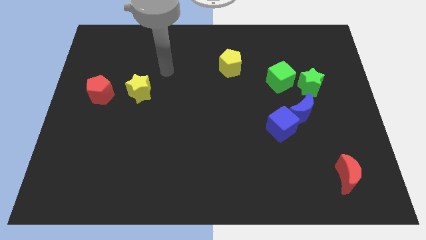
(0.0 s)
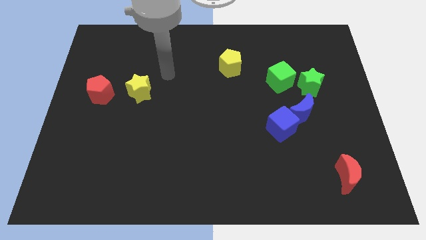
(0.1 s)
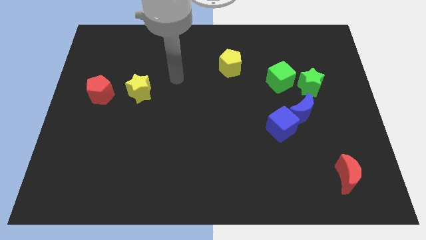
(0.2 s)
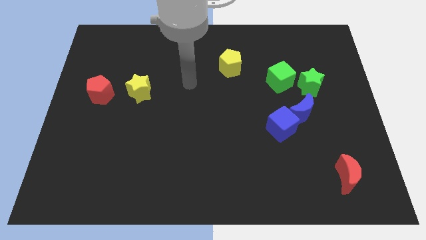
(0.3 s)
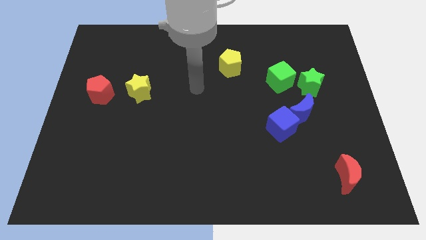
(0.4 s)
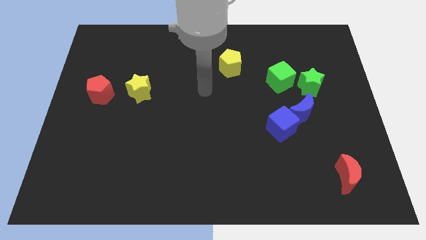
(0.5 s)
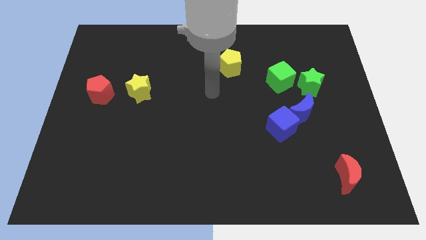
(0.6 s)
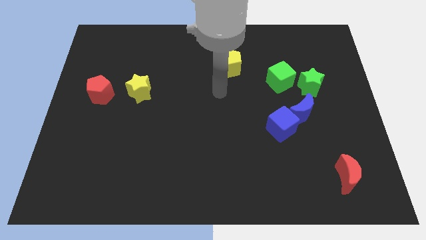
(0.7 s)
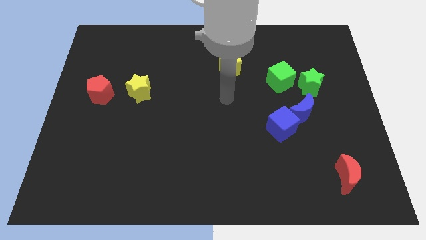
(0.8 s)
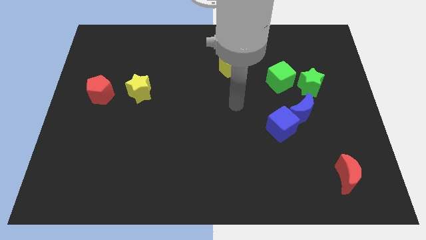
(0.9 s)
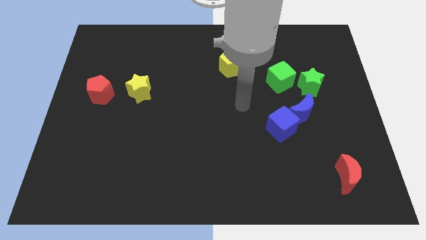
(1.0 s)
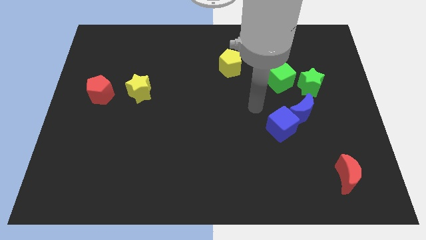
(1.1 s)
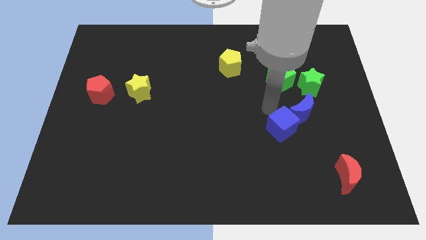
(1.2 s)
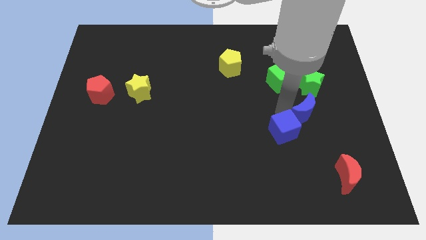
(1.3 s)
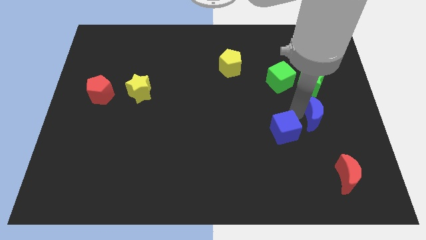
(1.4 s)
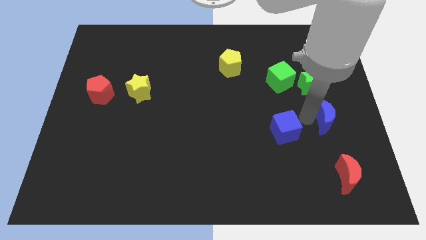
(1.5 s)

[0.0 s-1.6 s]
separate the blue cube from the blue moon

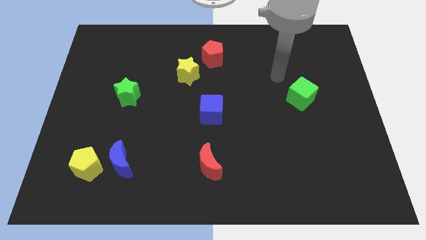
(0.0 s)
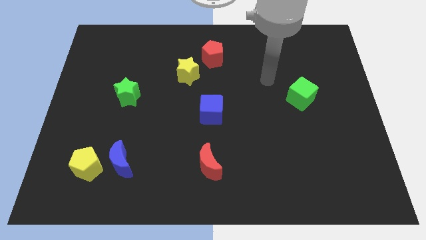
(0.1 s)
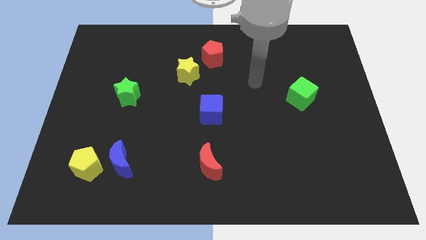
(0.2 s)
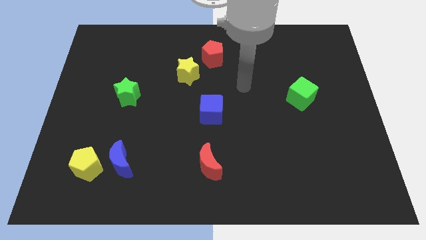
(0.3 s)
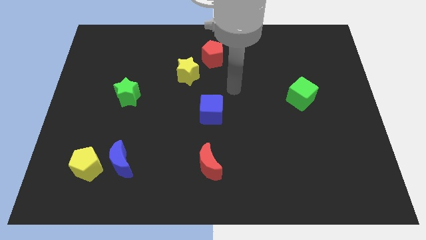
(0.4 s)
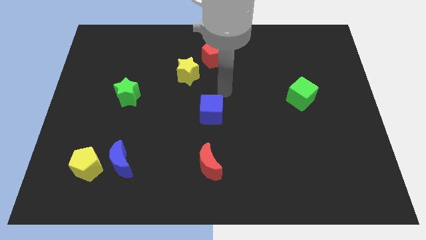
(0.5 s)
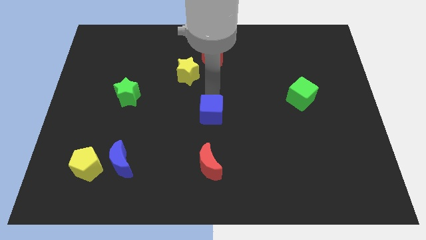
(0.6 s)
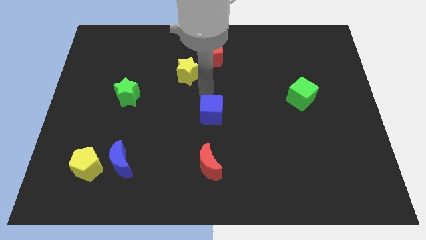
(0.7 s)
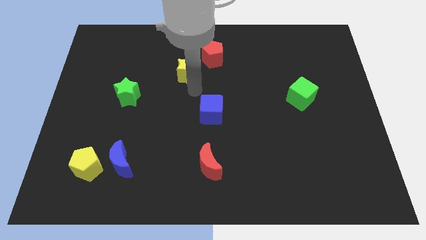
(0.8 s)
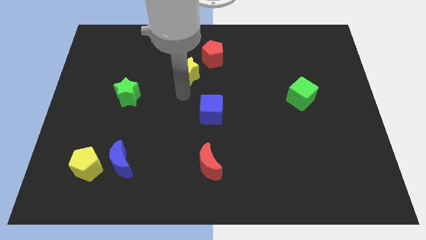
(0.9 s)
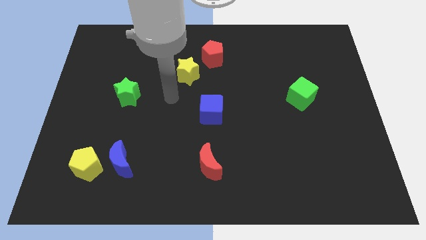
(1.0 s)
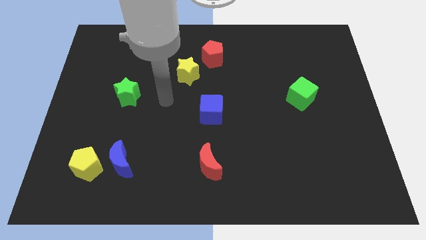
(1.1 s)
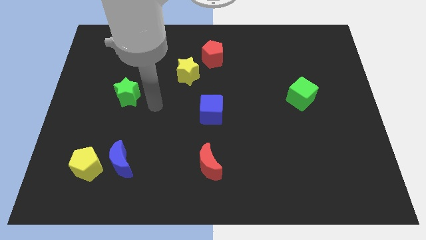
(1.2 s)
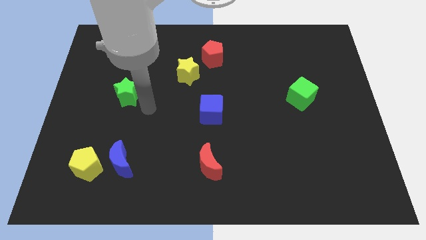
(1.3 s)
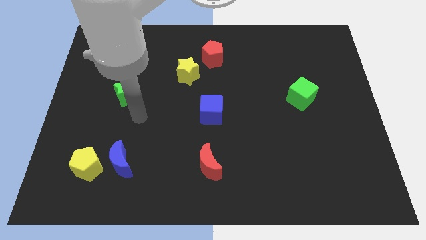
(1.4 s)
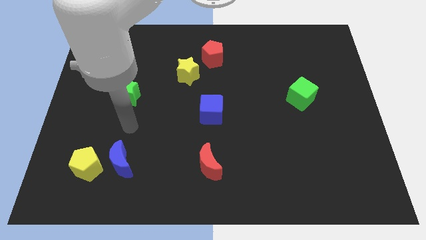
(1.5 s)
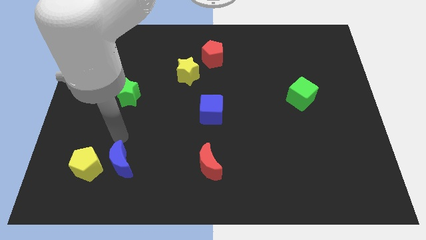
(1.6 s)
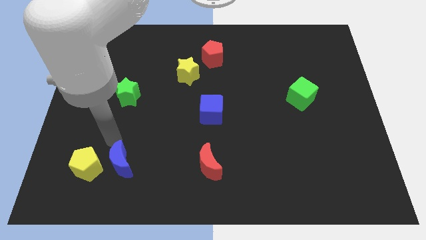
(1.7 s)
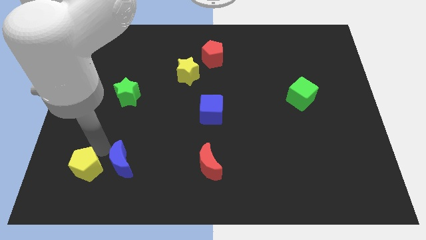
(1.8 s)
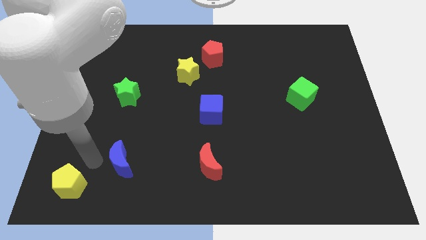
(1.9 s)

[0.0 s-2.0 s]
move the blue moon away from the yellow pentagon

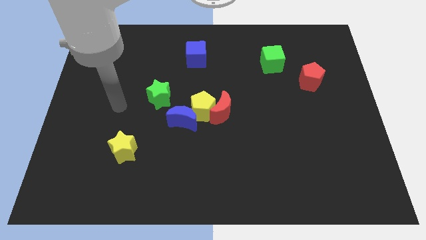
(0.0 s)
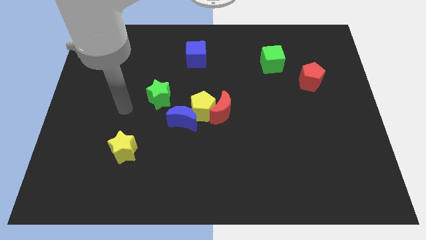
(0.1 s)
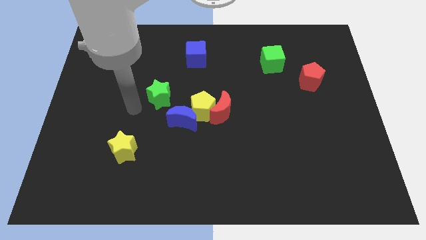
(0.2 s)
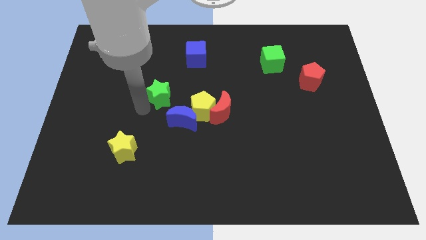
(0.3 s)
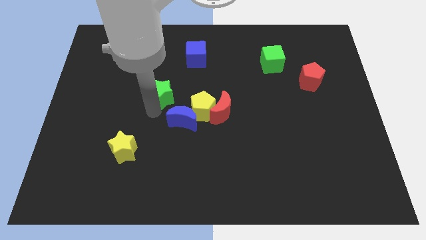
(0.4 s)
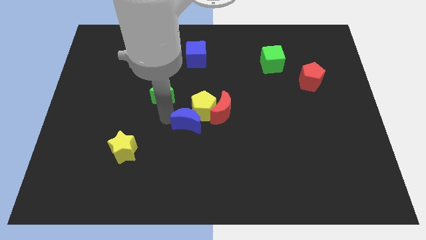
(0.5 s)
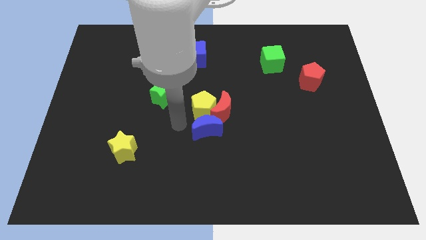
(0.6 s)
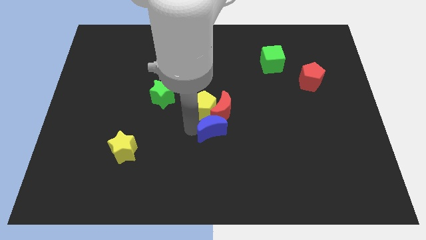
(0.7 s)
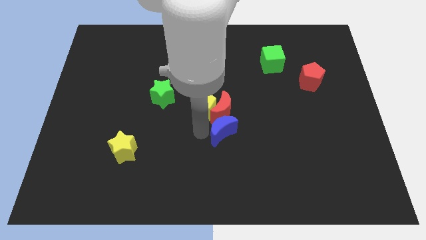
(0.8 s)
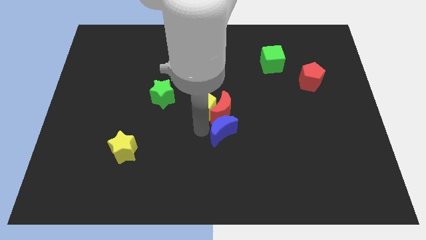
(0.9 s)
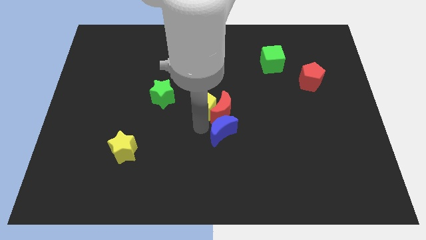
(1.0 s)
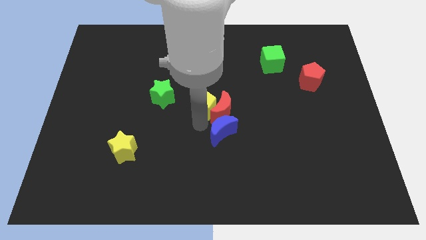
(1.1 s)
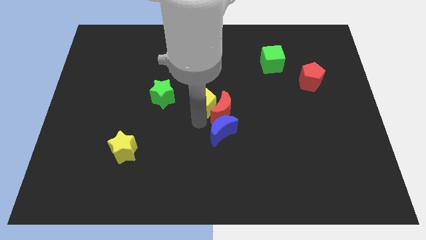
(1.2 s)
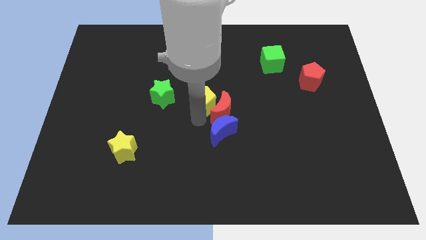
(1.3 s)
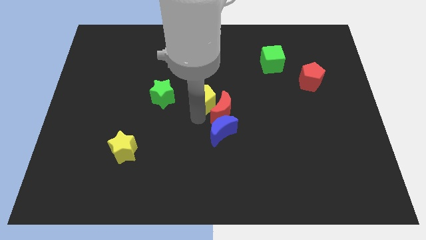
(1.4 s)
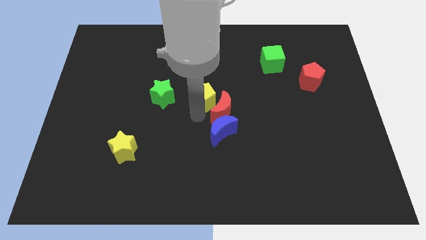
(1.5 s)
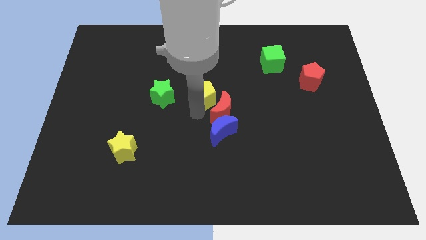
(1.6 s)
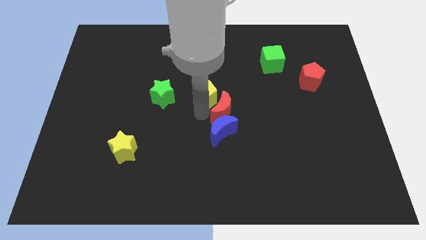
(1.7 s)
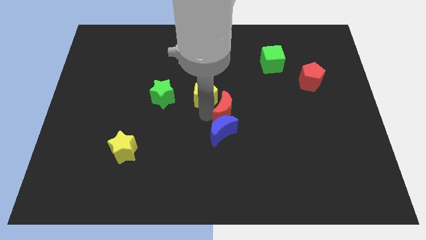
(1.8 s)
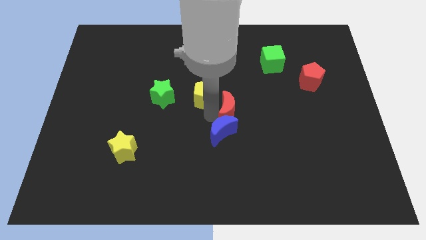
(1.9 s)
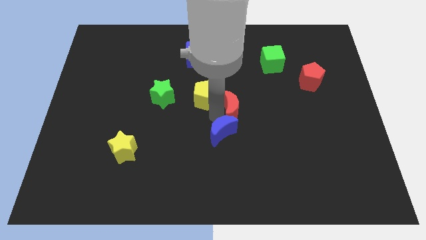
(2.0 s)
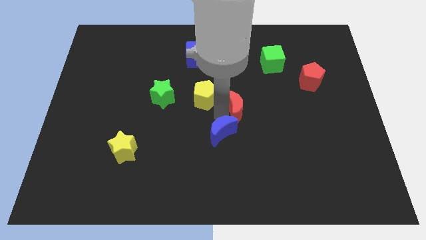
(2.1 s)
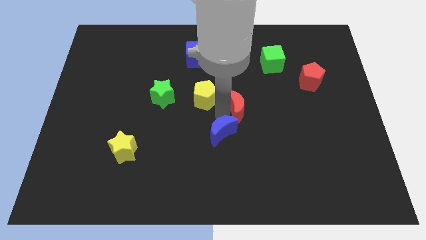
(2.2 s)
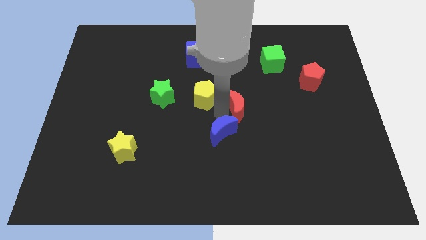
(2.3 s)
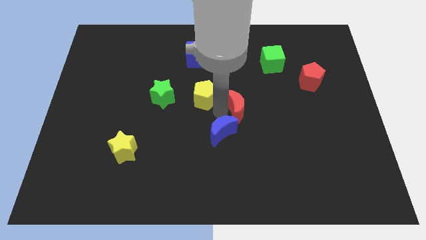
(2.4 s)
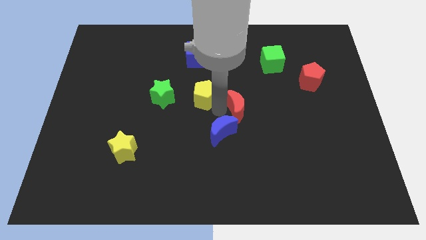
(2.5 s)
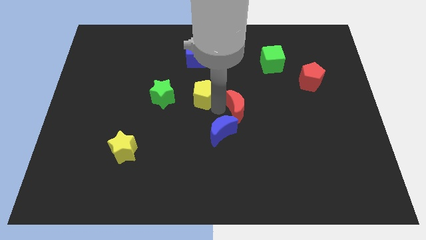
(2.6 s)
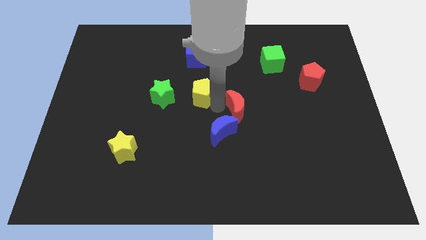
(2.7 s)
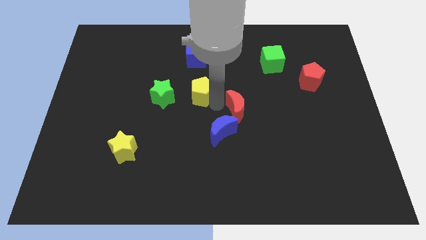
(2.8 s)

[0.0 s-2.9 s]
move the yellow pentagon away from the red moon and blue moon

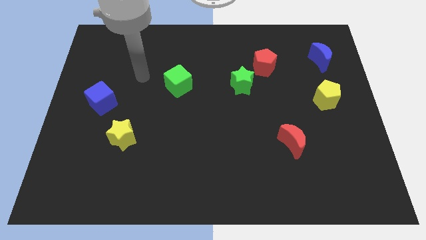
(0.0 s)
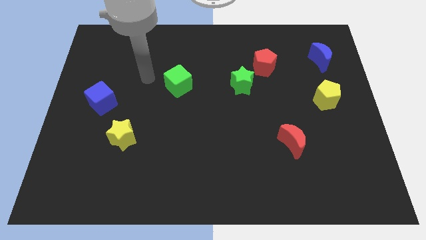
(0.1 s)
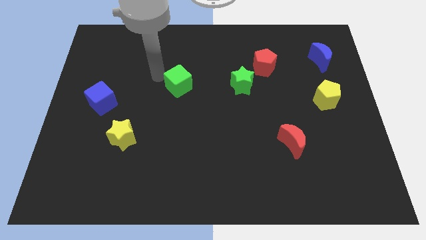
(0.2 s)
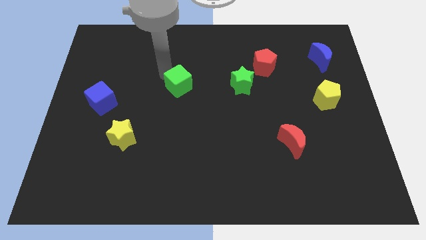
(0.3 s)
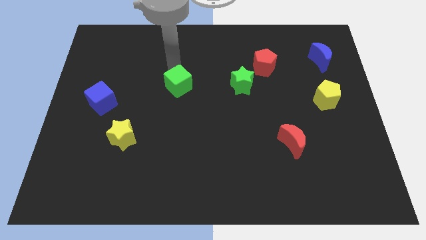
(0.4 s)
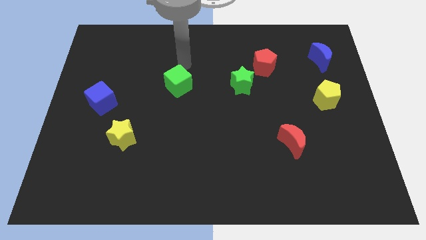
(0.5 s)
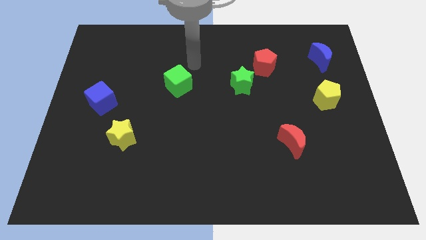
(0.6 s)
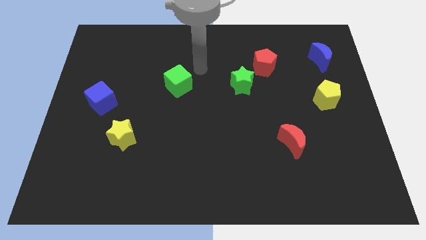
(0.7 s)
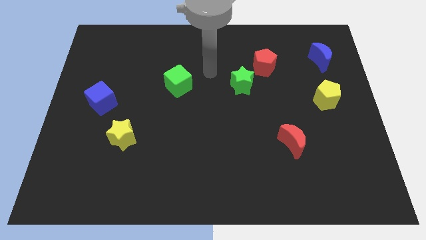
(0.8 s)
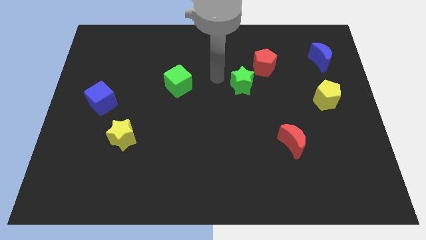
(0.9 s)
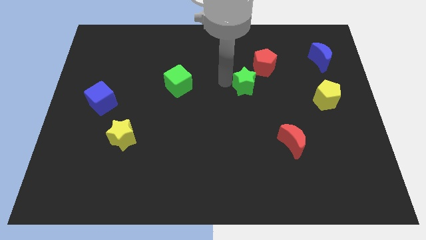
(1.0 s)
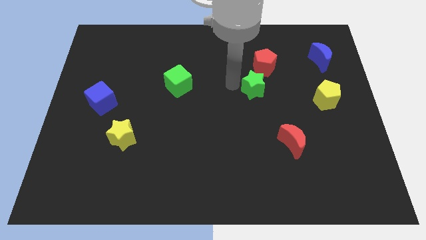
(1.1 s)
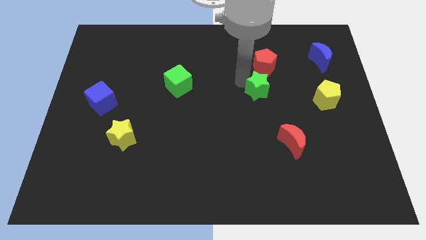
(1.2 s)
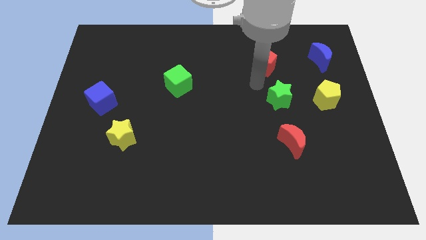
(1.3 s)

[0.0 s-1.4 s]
separate the red pentagon from the green star

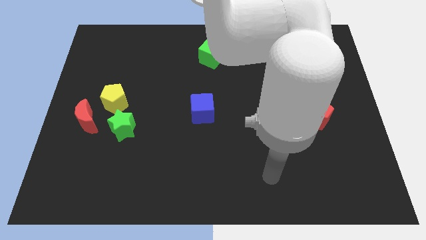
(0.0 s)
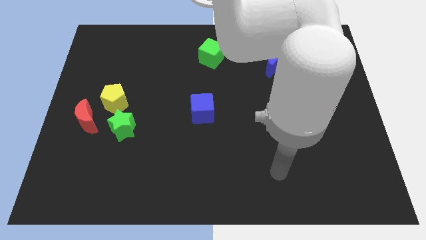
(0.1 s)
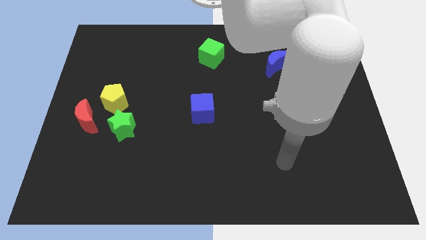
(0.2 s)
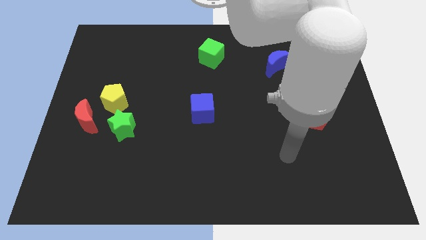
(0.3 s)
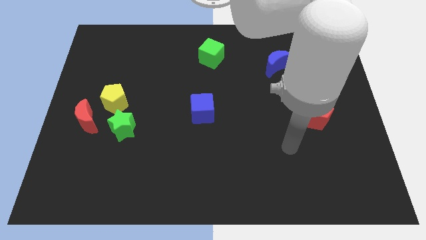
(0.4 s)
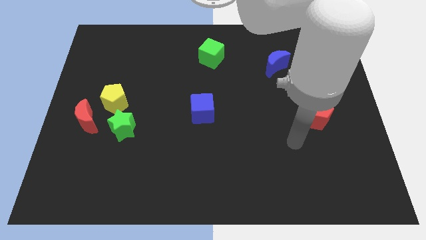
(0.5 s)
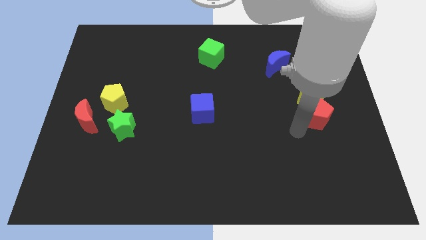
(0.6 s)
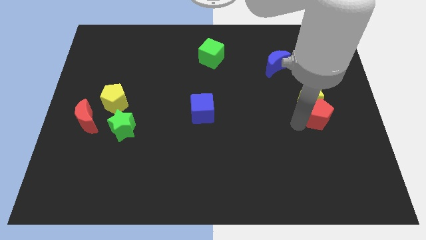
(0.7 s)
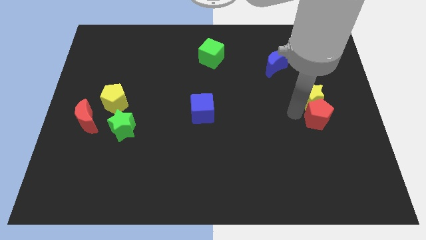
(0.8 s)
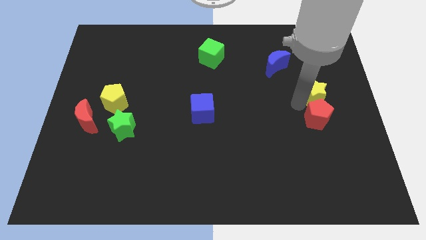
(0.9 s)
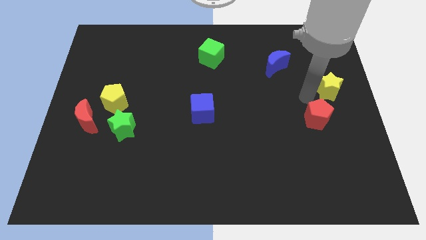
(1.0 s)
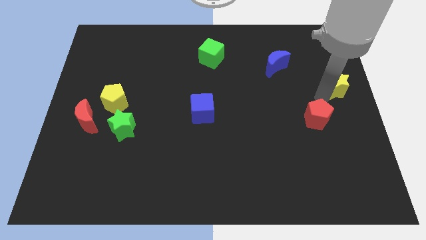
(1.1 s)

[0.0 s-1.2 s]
pull the red pentagon apart from the yellow star

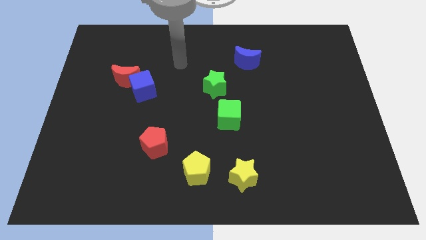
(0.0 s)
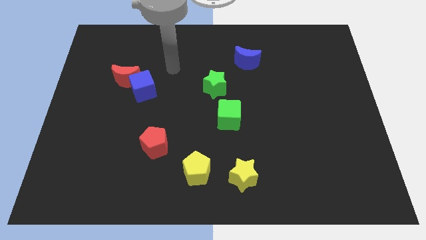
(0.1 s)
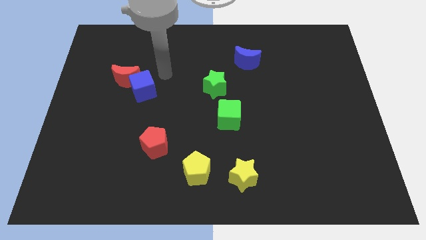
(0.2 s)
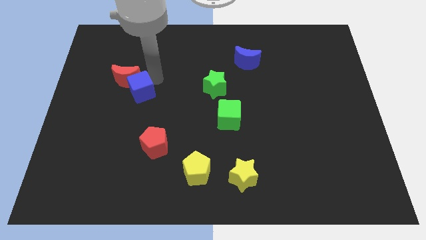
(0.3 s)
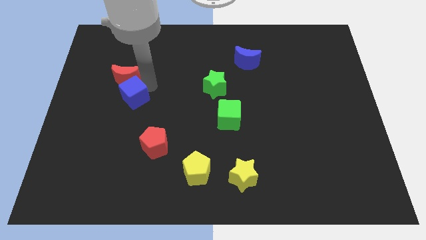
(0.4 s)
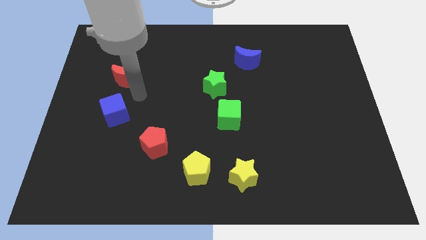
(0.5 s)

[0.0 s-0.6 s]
pull the red moon apart from the blue cube
